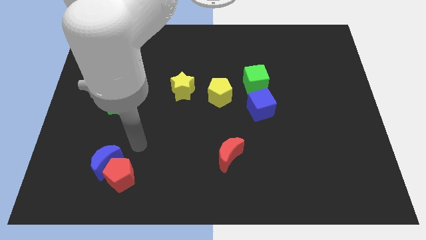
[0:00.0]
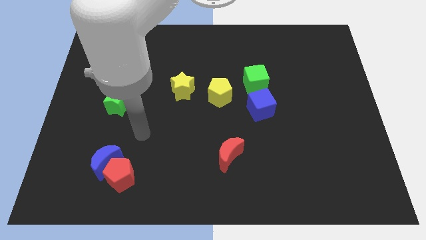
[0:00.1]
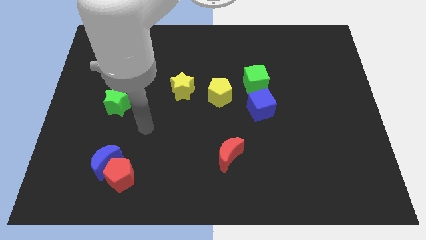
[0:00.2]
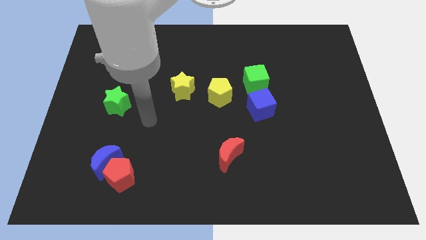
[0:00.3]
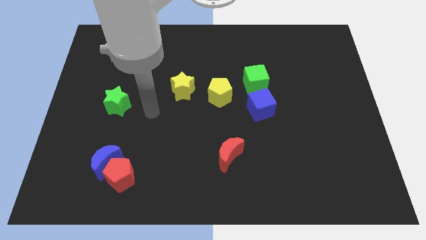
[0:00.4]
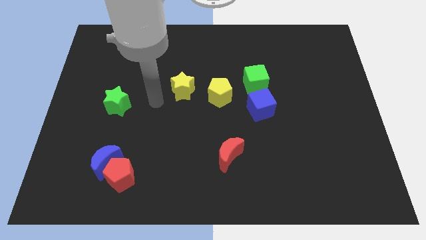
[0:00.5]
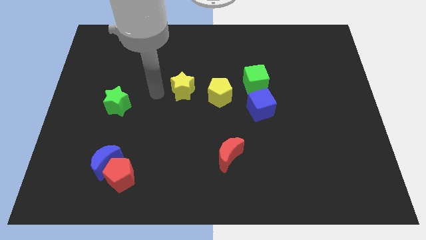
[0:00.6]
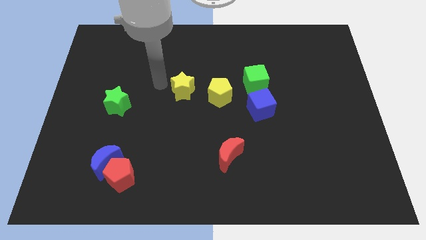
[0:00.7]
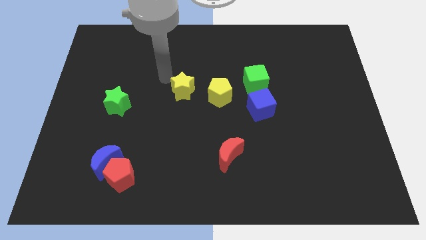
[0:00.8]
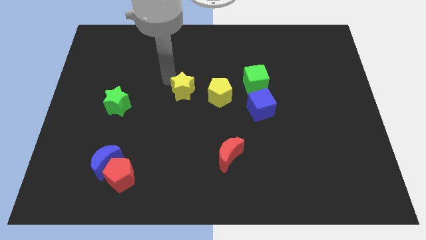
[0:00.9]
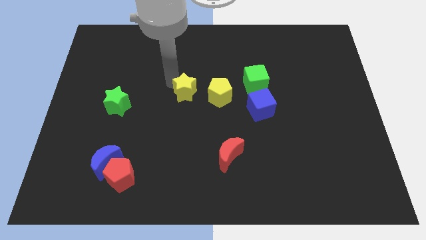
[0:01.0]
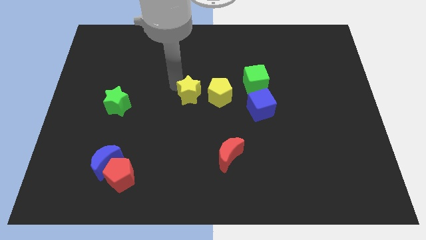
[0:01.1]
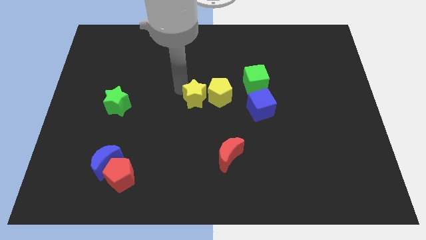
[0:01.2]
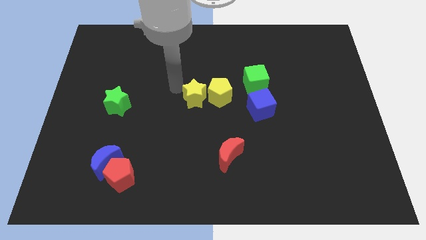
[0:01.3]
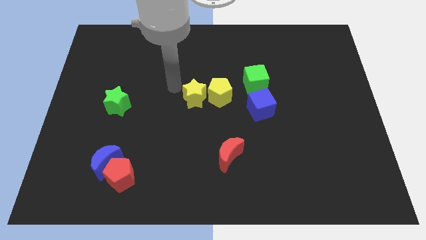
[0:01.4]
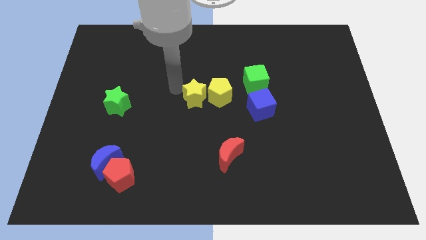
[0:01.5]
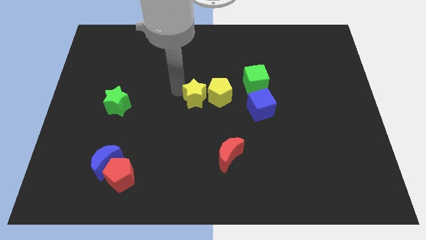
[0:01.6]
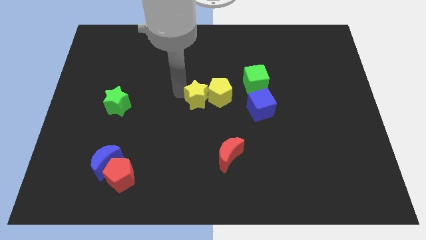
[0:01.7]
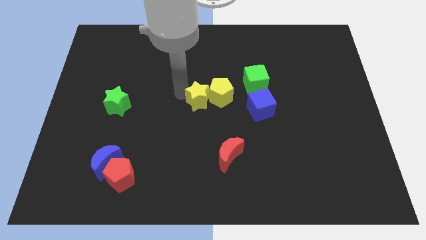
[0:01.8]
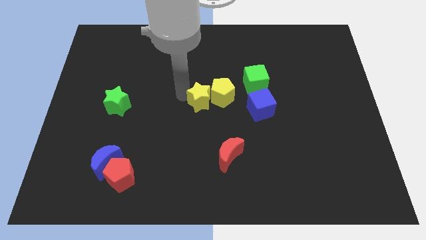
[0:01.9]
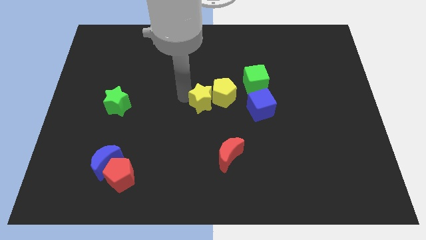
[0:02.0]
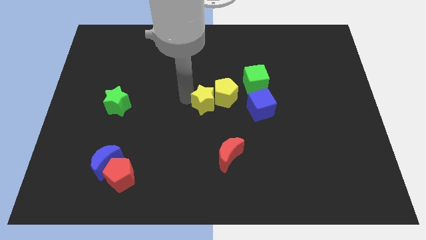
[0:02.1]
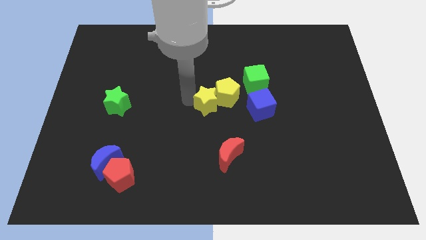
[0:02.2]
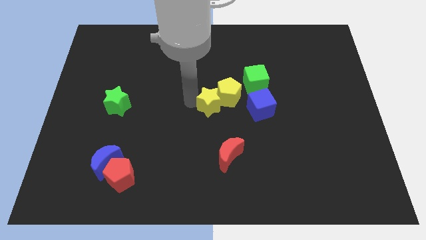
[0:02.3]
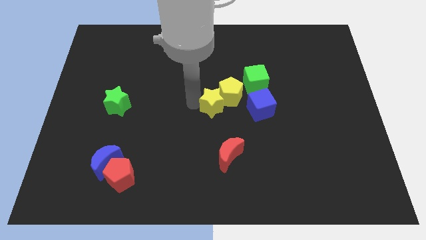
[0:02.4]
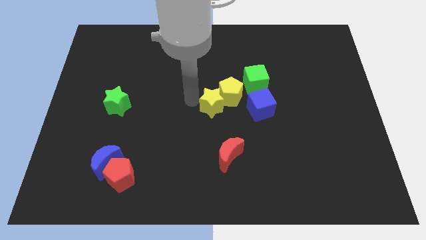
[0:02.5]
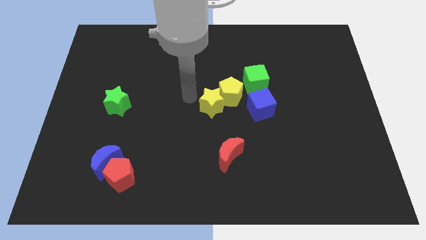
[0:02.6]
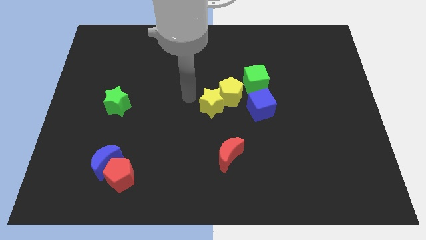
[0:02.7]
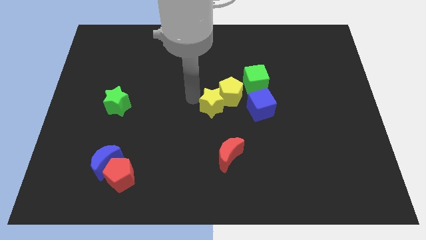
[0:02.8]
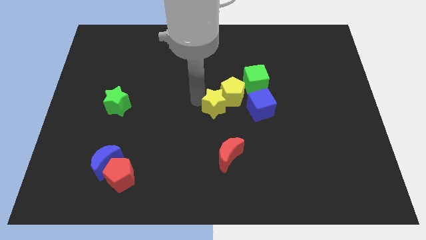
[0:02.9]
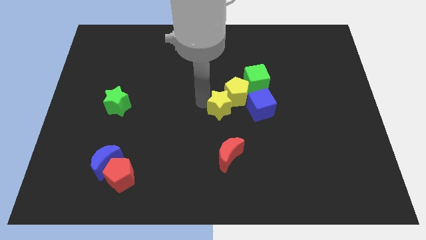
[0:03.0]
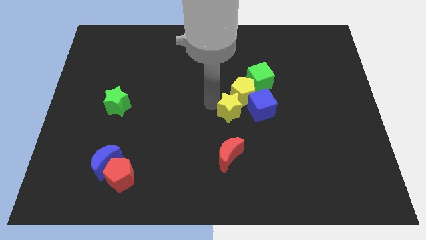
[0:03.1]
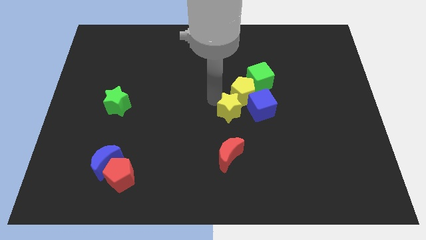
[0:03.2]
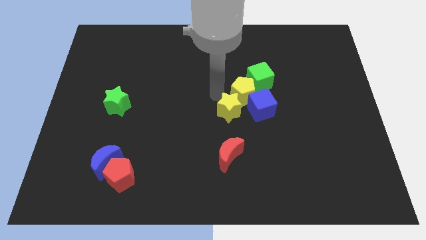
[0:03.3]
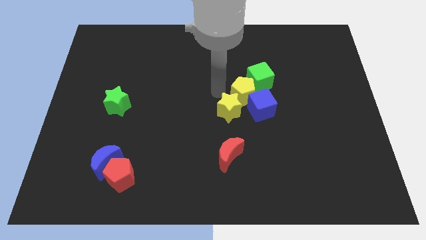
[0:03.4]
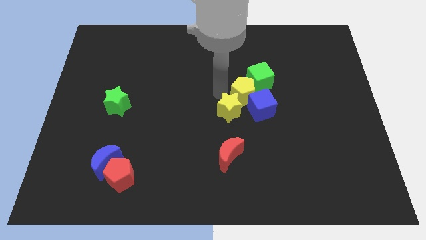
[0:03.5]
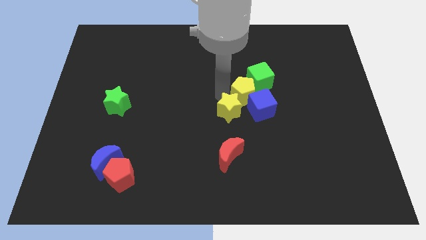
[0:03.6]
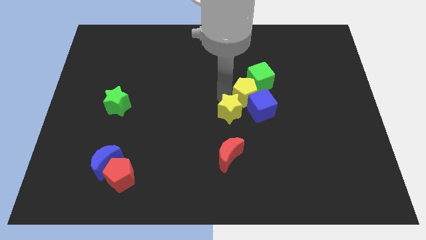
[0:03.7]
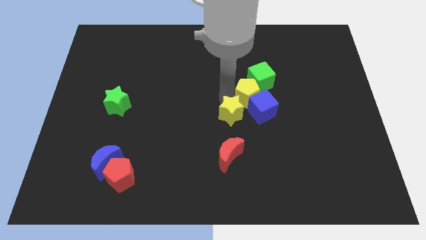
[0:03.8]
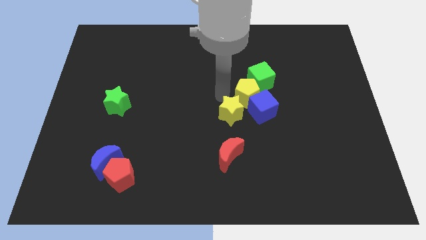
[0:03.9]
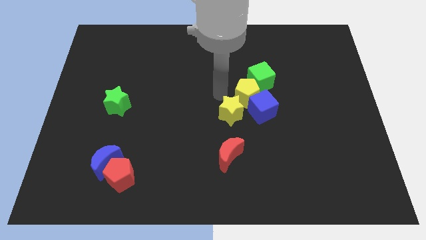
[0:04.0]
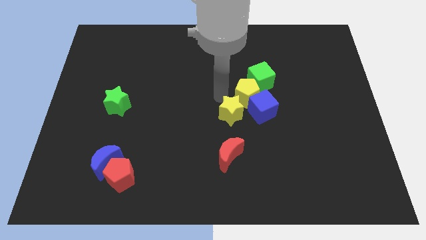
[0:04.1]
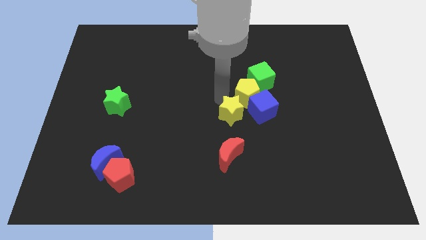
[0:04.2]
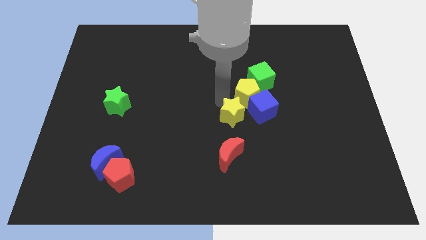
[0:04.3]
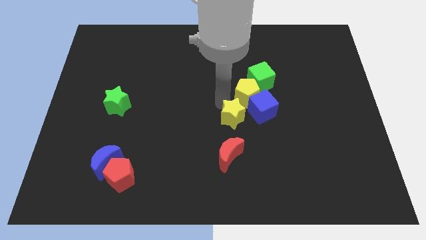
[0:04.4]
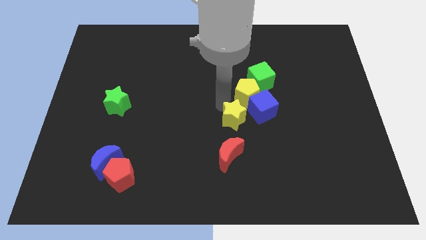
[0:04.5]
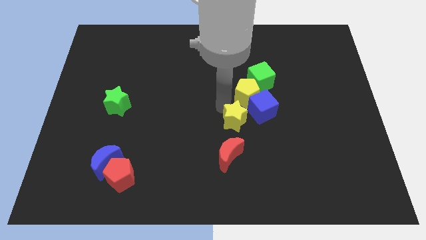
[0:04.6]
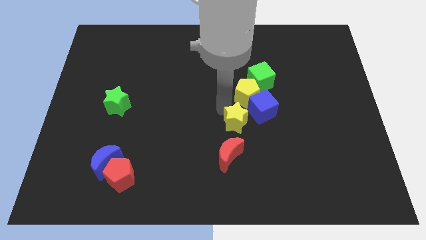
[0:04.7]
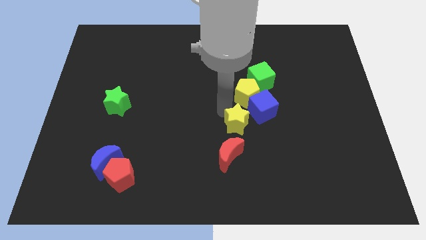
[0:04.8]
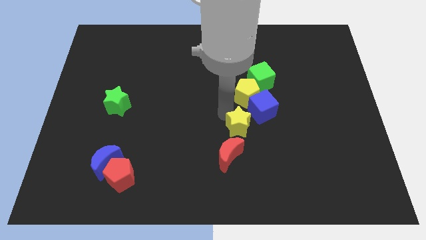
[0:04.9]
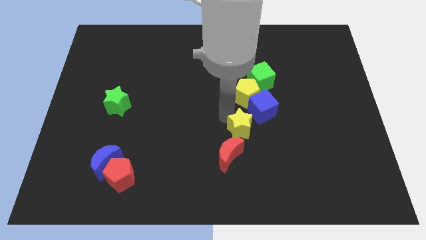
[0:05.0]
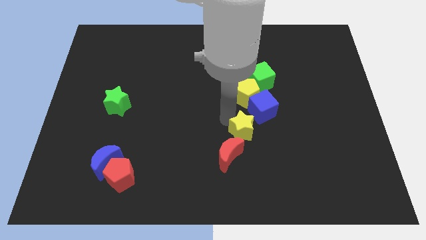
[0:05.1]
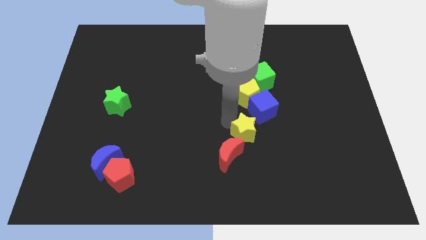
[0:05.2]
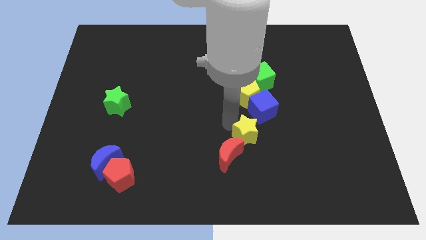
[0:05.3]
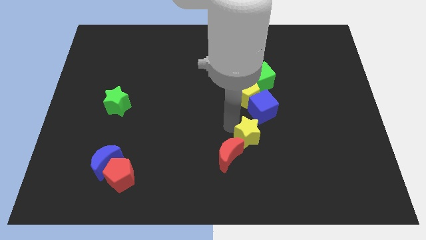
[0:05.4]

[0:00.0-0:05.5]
push the yellow star down and then to the right

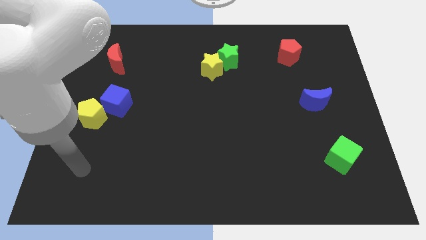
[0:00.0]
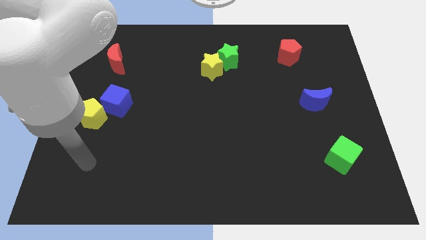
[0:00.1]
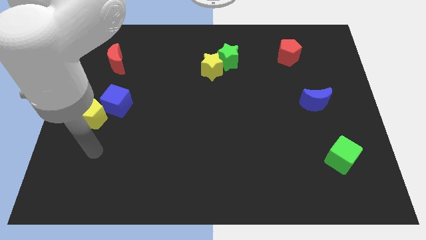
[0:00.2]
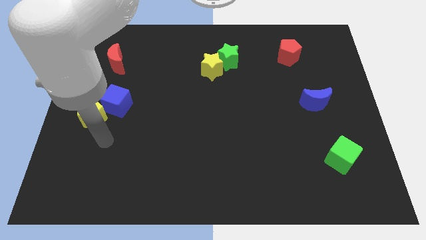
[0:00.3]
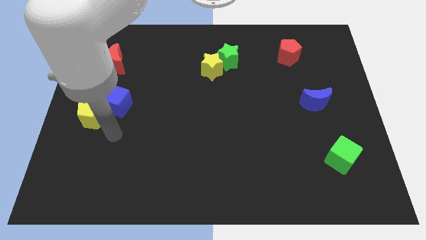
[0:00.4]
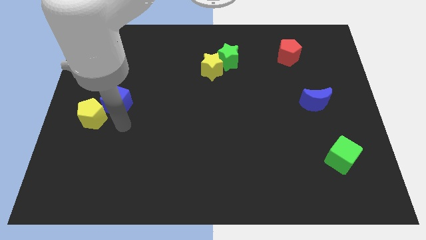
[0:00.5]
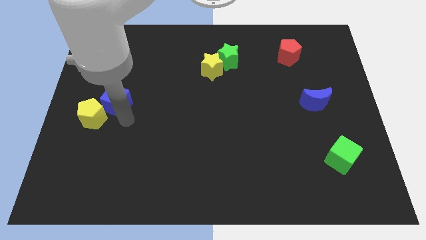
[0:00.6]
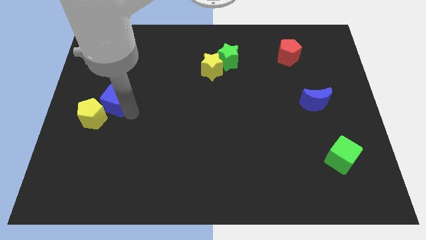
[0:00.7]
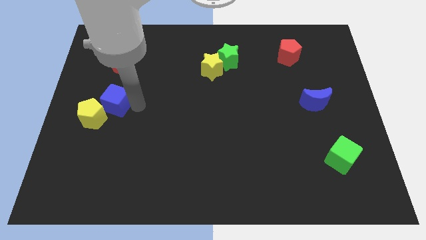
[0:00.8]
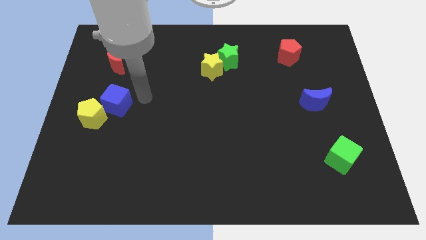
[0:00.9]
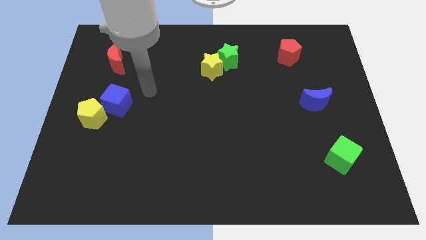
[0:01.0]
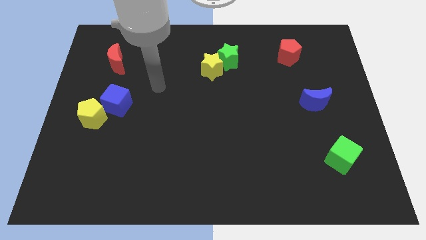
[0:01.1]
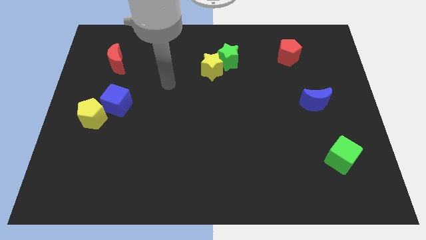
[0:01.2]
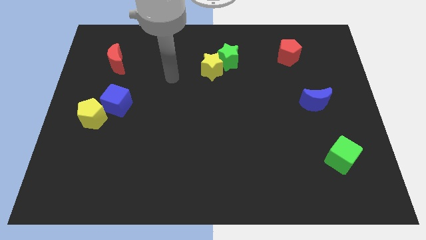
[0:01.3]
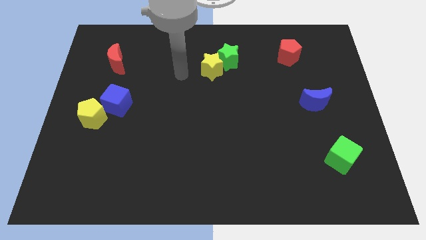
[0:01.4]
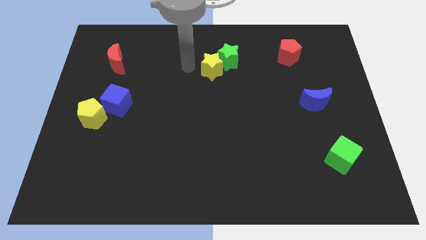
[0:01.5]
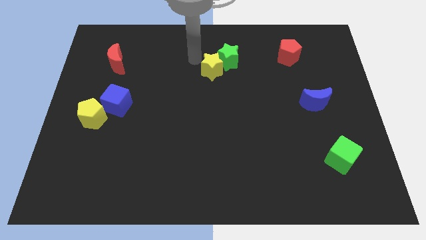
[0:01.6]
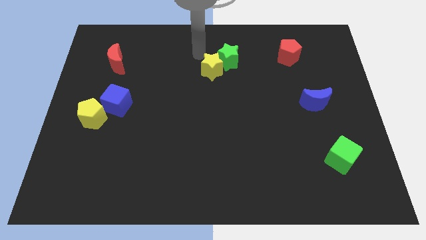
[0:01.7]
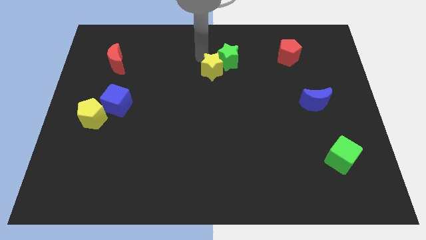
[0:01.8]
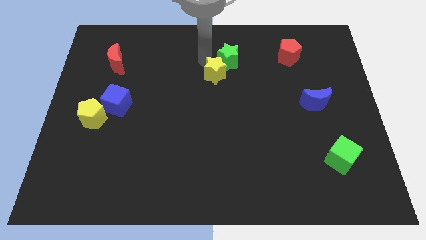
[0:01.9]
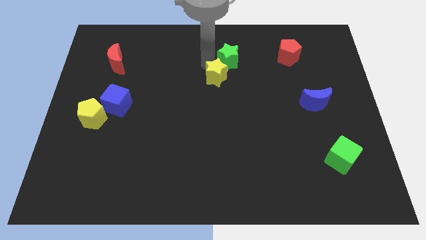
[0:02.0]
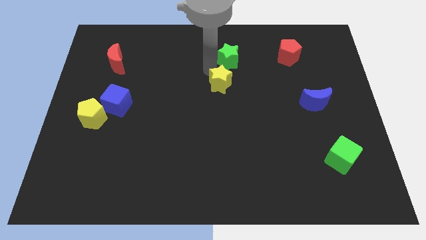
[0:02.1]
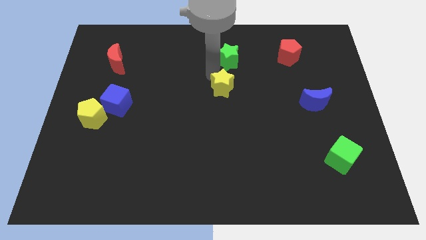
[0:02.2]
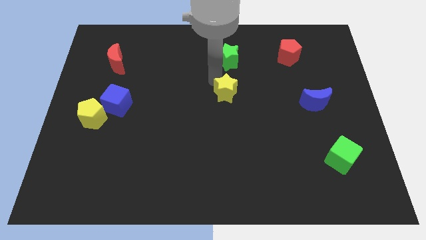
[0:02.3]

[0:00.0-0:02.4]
push the yellow star slightly down and then to the right

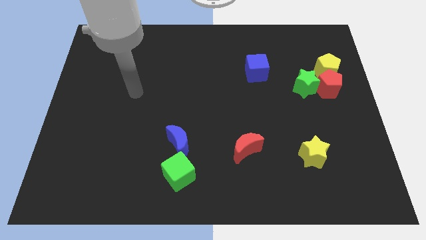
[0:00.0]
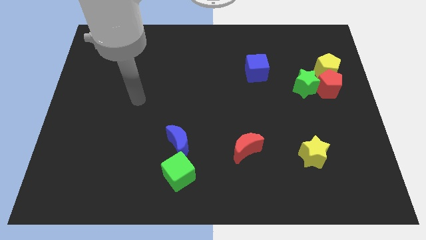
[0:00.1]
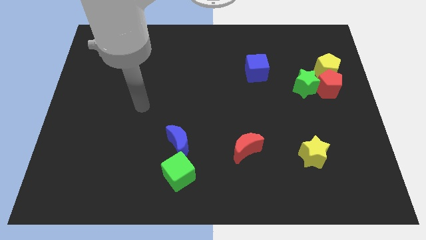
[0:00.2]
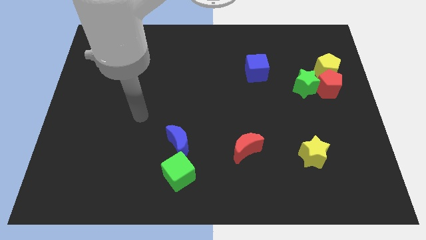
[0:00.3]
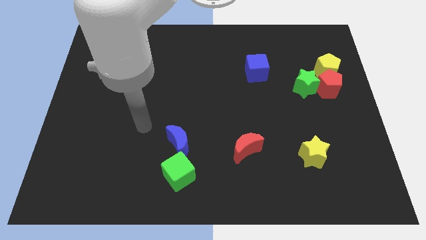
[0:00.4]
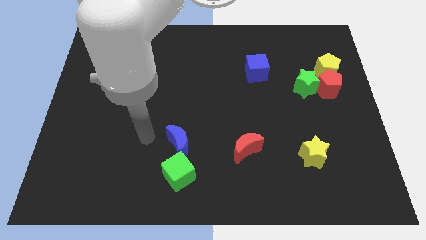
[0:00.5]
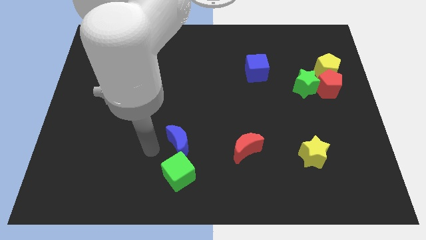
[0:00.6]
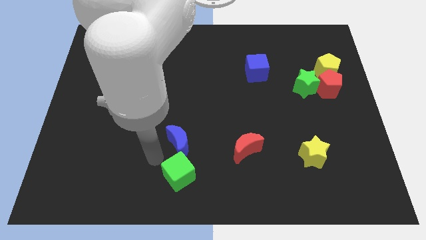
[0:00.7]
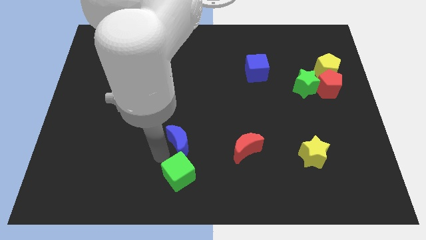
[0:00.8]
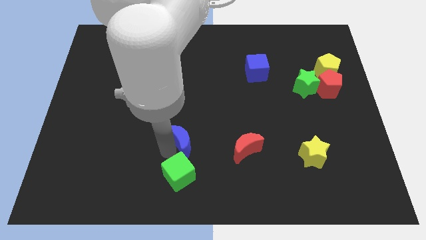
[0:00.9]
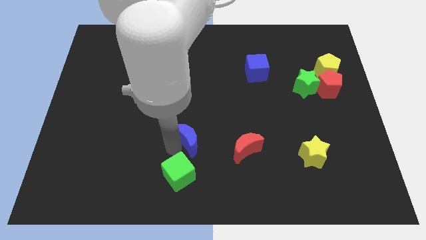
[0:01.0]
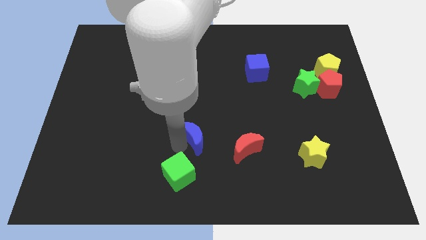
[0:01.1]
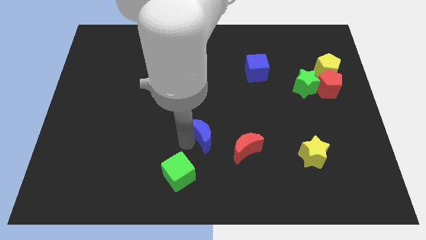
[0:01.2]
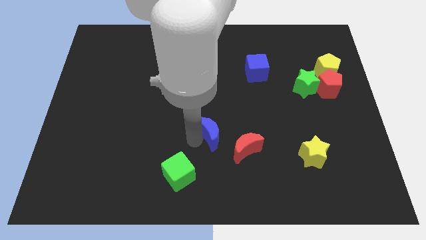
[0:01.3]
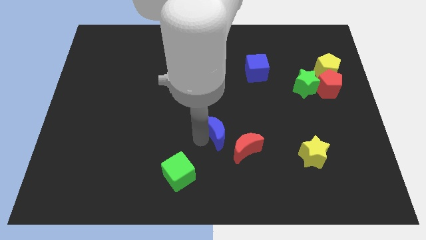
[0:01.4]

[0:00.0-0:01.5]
slightly push the blue moon diagonally upwards and to the right
